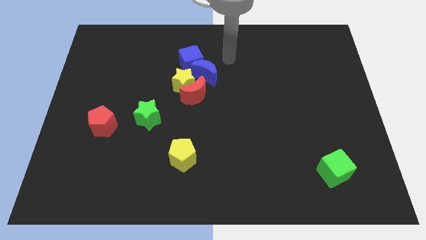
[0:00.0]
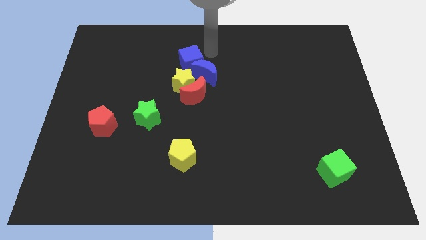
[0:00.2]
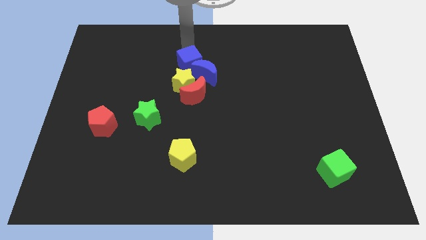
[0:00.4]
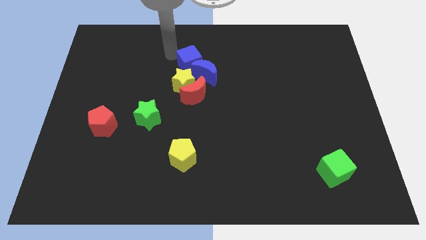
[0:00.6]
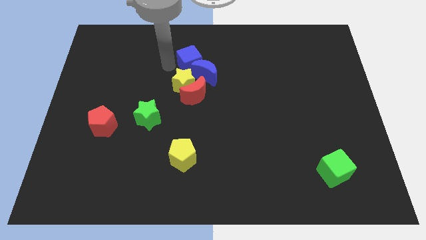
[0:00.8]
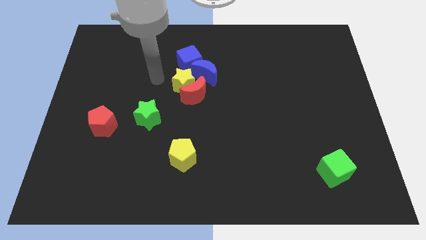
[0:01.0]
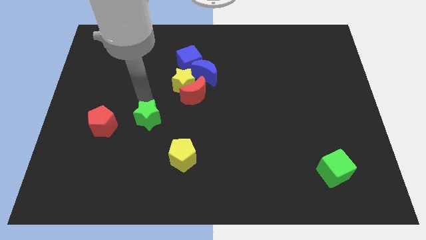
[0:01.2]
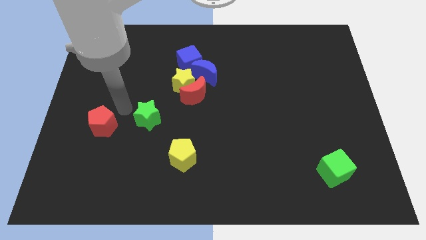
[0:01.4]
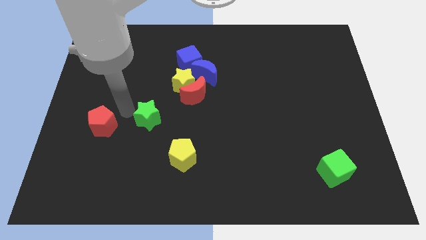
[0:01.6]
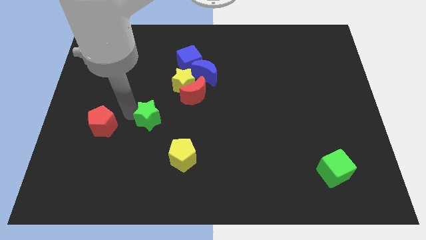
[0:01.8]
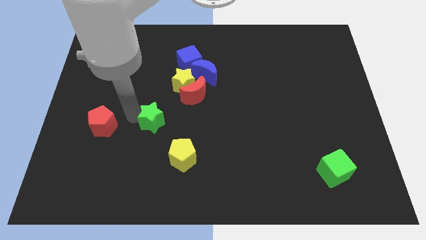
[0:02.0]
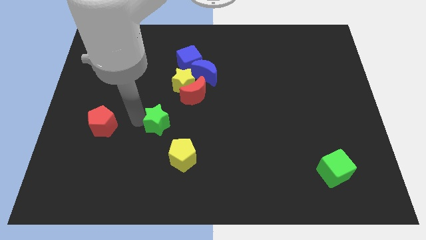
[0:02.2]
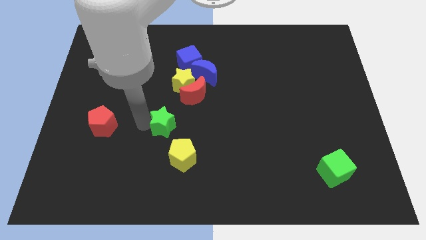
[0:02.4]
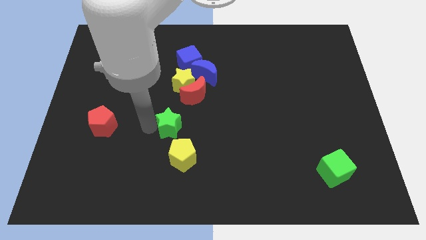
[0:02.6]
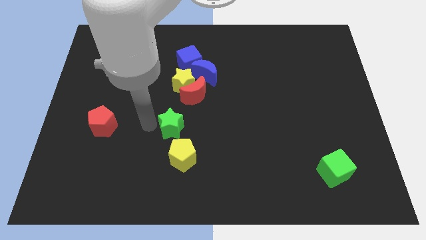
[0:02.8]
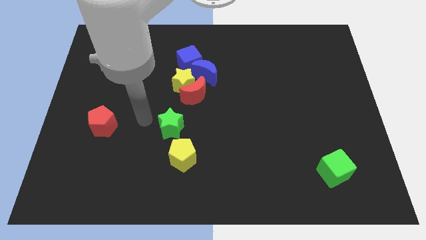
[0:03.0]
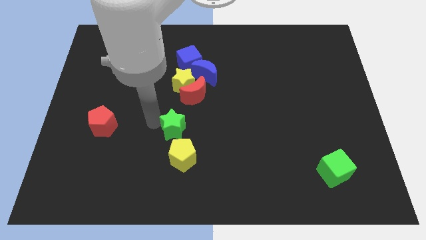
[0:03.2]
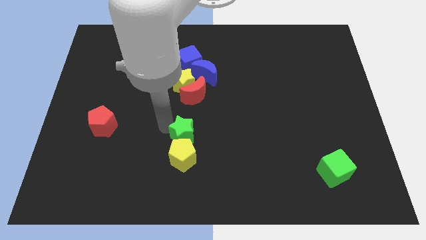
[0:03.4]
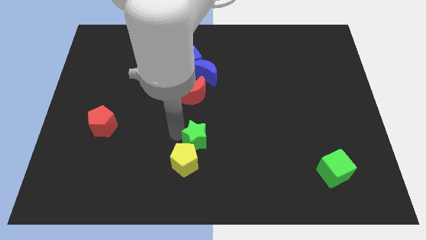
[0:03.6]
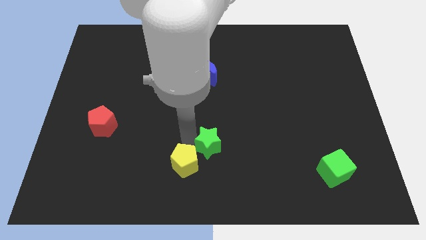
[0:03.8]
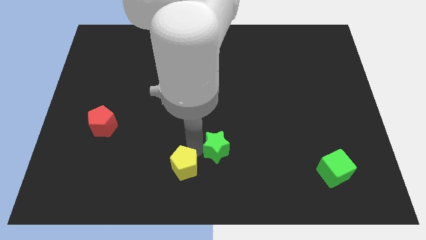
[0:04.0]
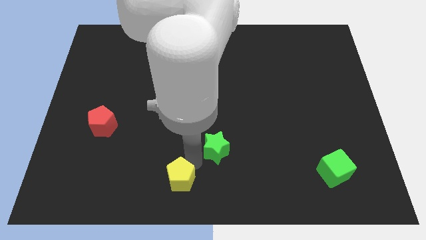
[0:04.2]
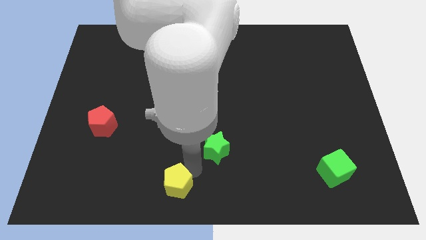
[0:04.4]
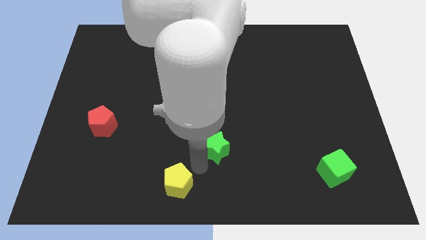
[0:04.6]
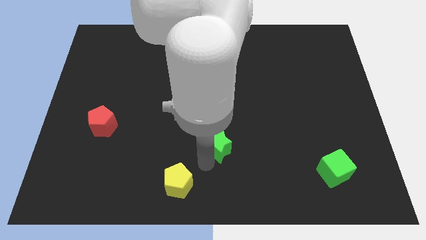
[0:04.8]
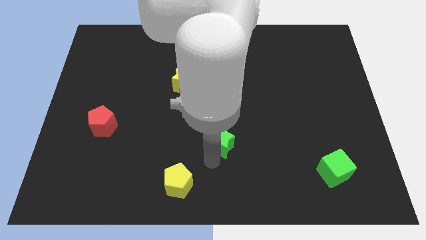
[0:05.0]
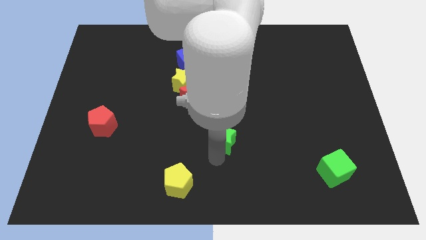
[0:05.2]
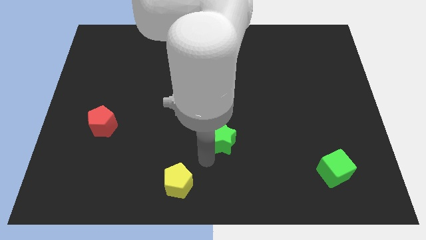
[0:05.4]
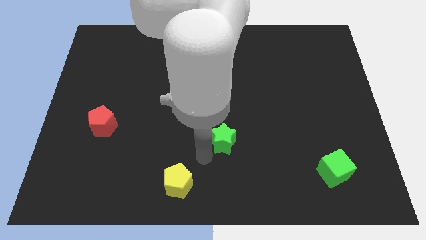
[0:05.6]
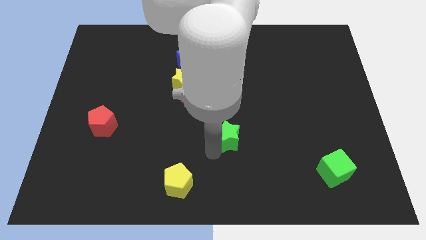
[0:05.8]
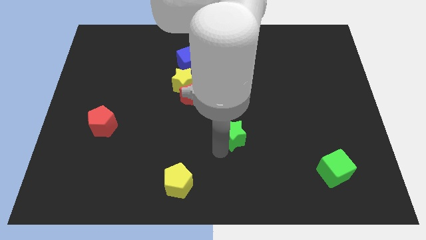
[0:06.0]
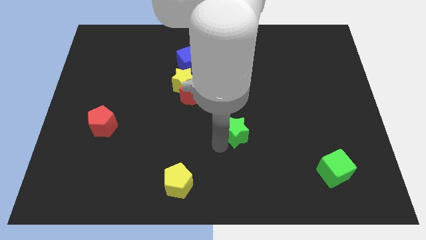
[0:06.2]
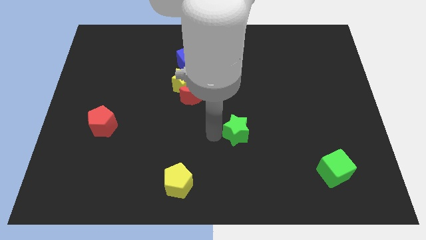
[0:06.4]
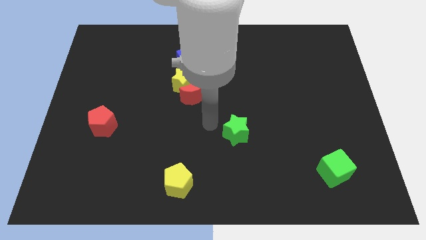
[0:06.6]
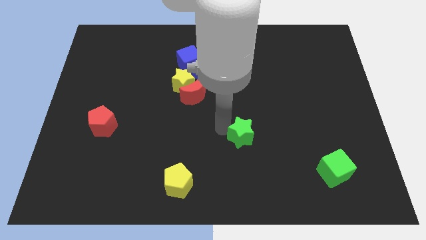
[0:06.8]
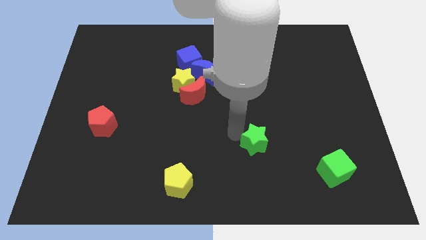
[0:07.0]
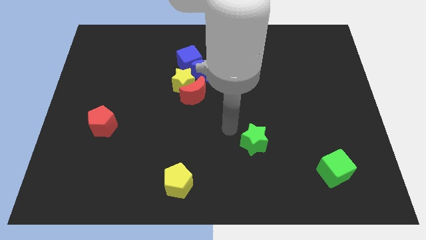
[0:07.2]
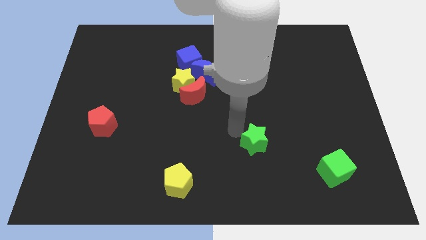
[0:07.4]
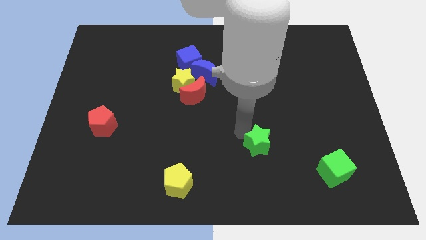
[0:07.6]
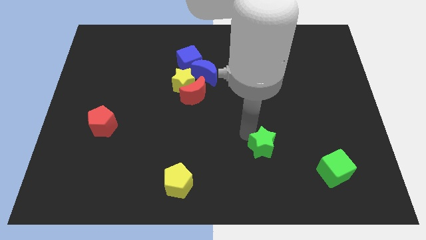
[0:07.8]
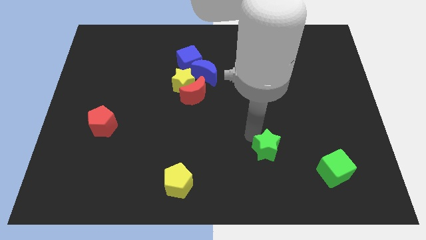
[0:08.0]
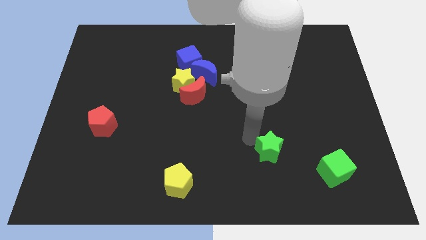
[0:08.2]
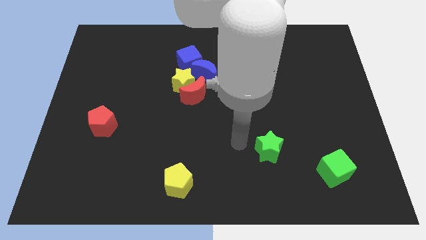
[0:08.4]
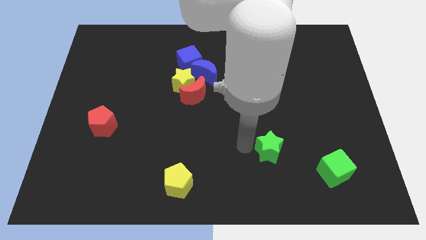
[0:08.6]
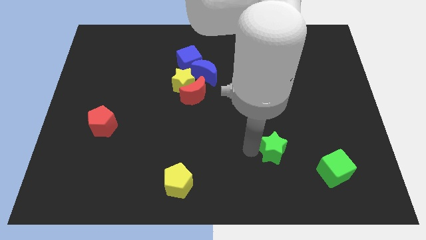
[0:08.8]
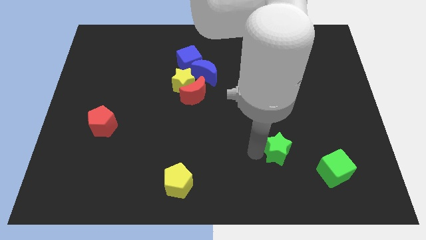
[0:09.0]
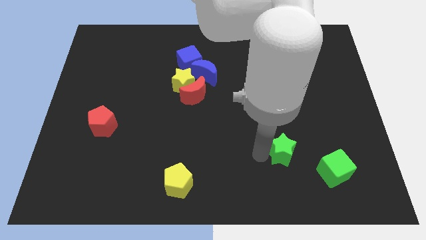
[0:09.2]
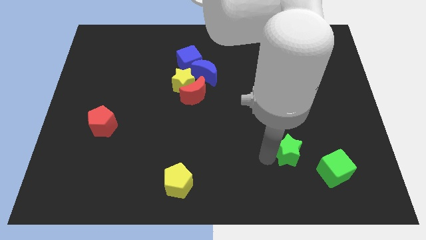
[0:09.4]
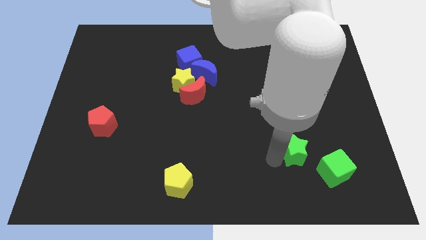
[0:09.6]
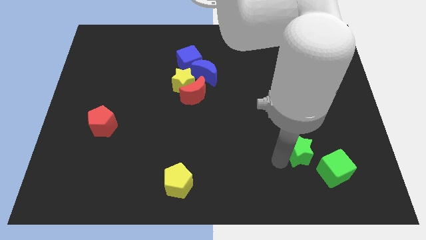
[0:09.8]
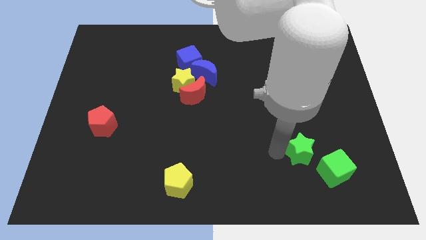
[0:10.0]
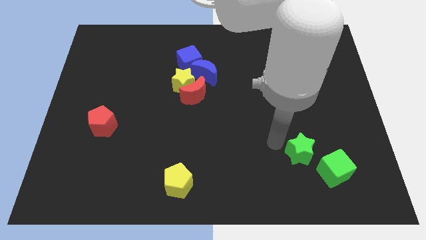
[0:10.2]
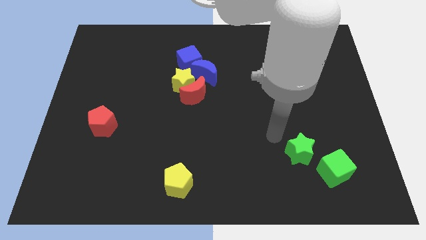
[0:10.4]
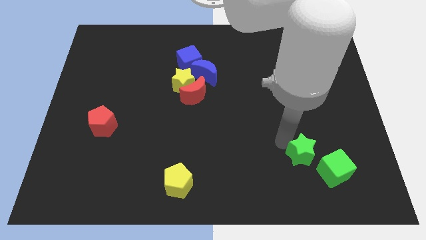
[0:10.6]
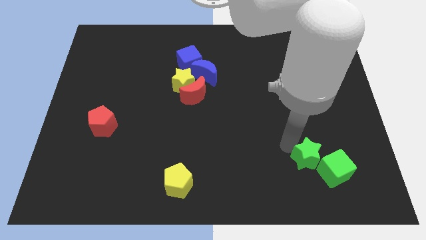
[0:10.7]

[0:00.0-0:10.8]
push the green star towards the green cube

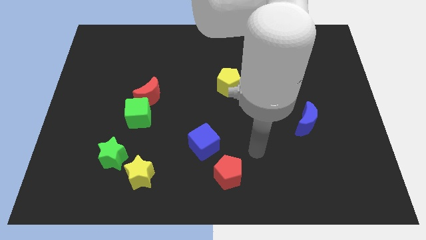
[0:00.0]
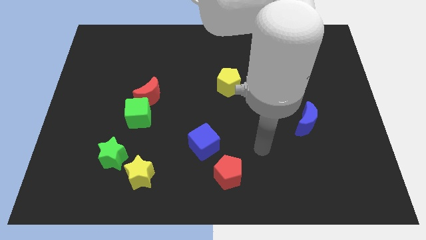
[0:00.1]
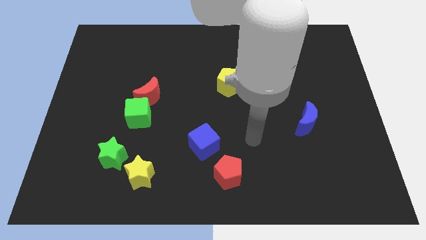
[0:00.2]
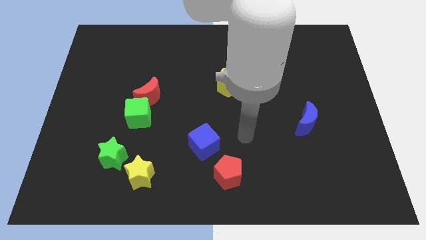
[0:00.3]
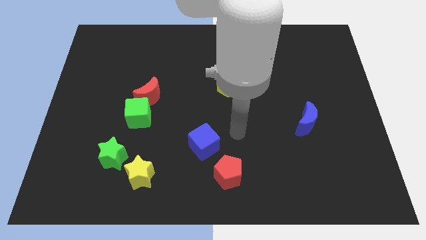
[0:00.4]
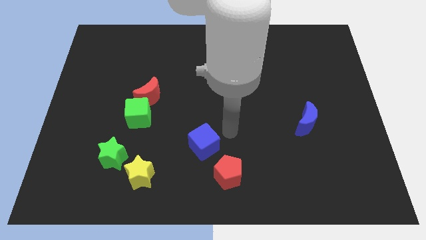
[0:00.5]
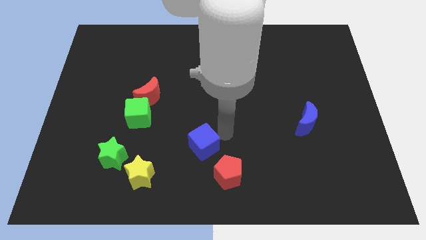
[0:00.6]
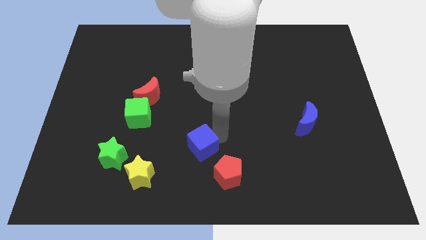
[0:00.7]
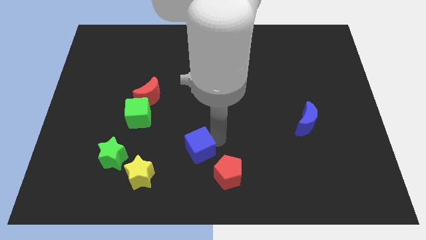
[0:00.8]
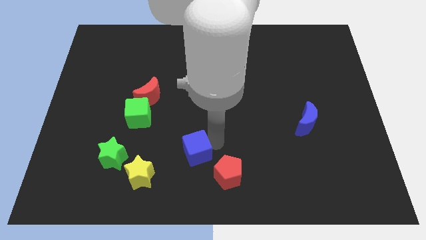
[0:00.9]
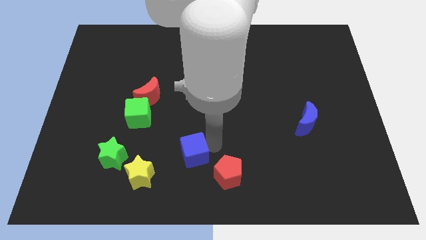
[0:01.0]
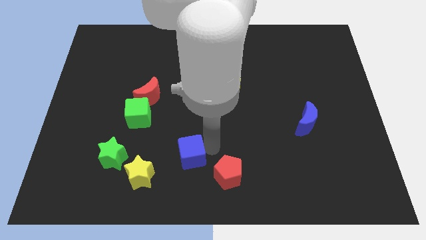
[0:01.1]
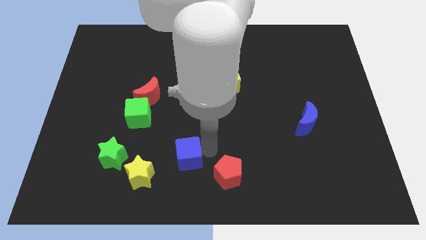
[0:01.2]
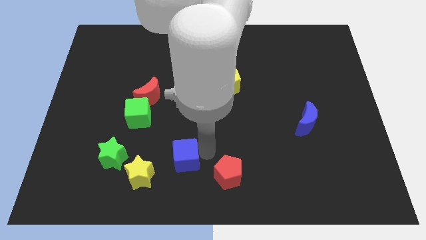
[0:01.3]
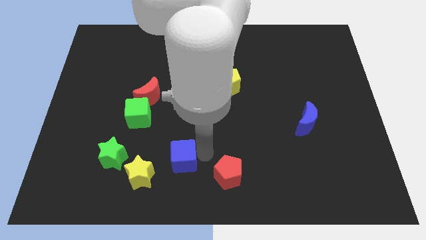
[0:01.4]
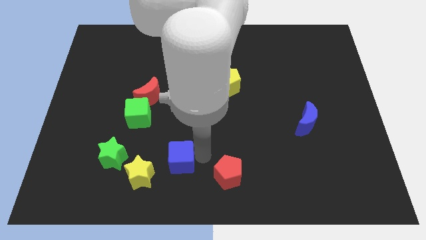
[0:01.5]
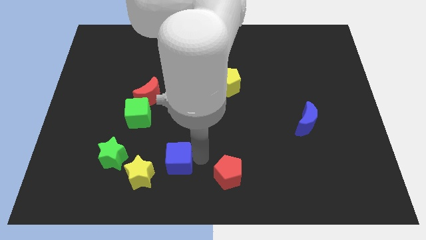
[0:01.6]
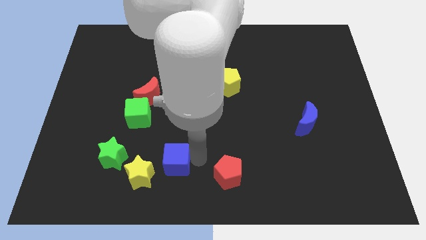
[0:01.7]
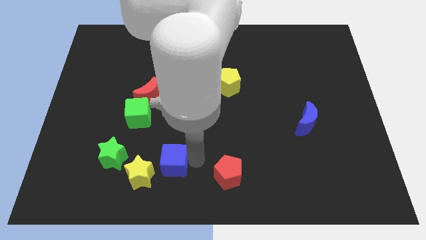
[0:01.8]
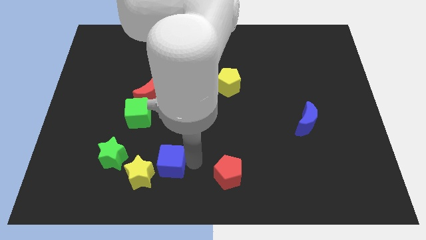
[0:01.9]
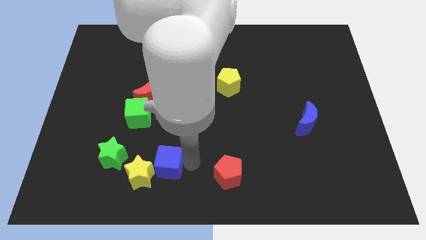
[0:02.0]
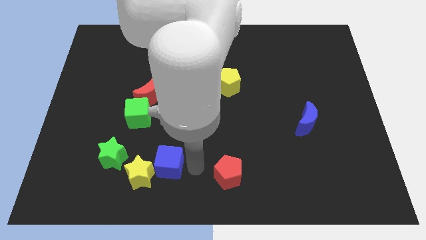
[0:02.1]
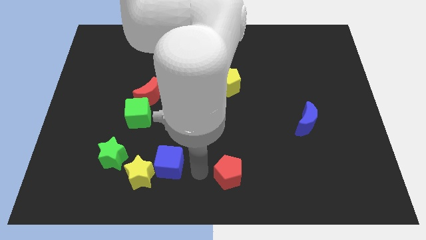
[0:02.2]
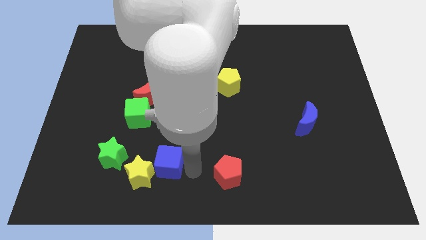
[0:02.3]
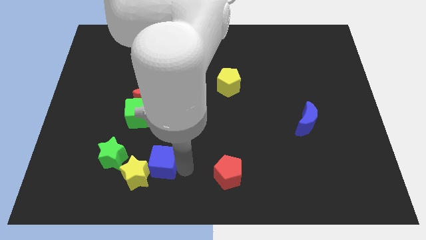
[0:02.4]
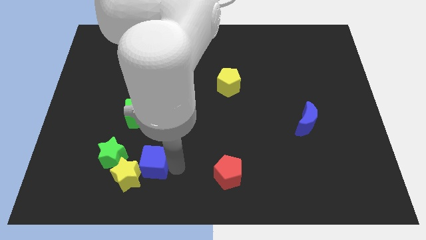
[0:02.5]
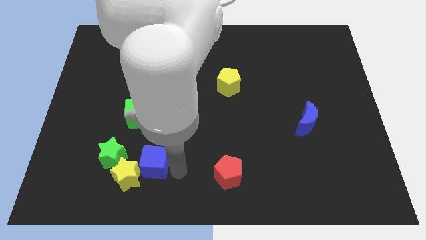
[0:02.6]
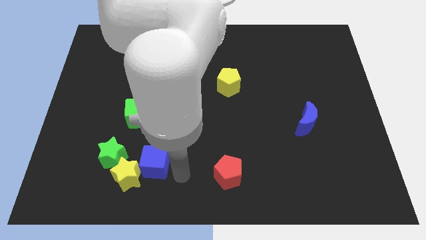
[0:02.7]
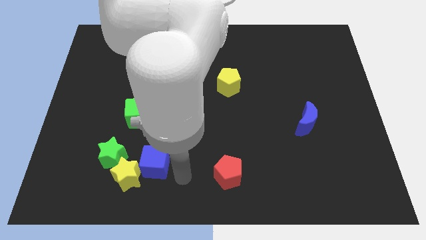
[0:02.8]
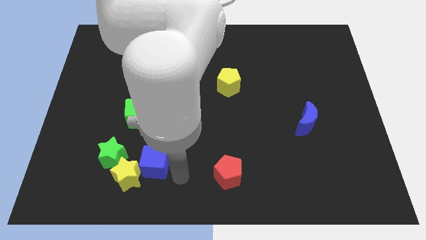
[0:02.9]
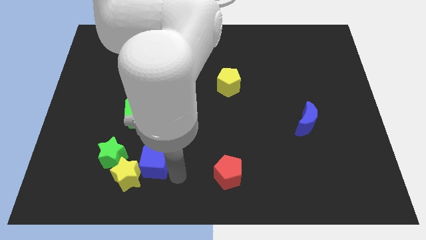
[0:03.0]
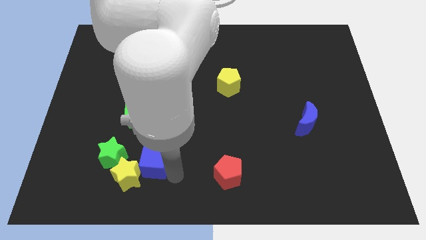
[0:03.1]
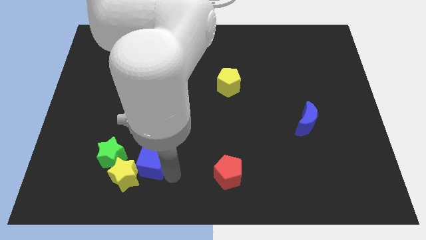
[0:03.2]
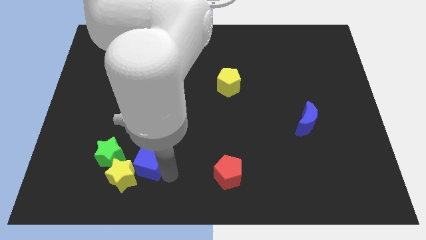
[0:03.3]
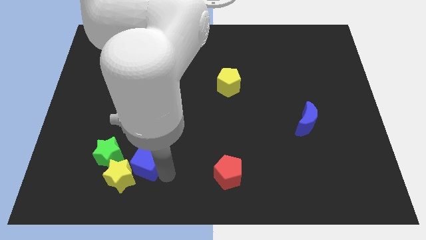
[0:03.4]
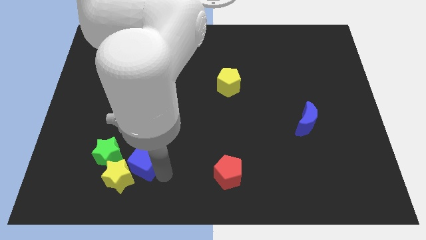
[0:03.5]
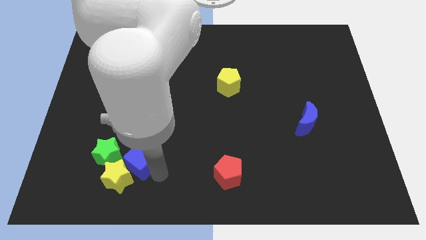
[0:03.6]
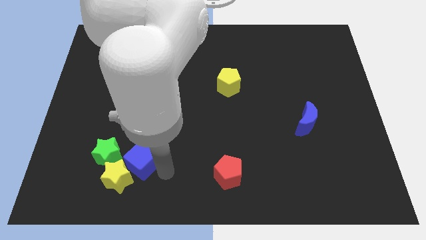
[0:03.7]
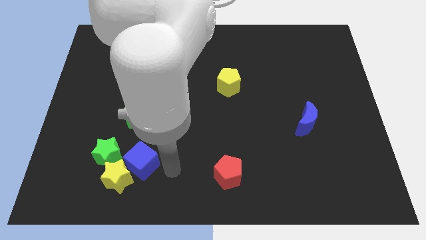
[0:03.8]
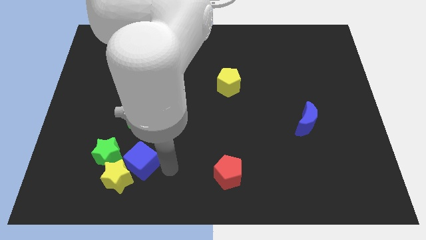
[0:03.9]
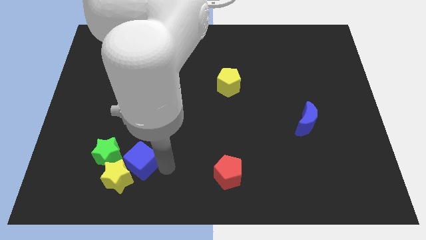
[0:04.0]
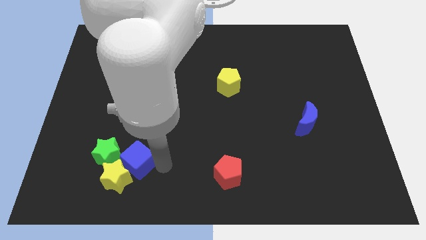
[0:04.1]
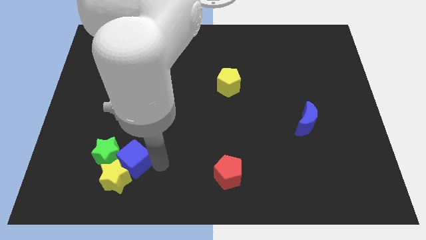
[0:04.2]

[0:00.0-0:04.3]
put the blue cube towards the green star
